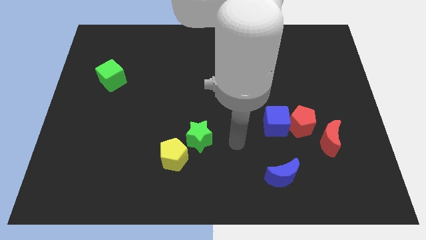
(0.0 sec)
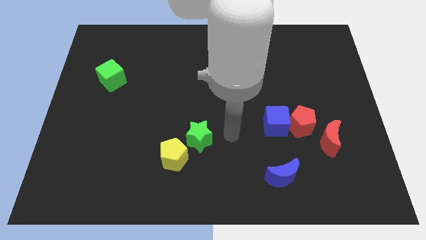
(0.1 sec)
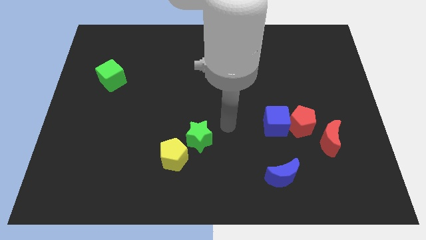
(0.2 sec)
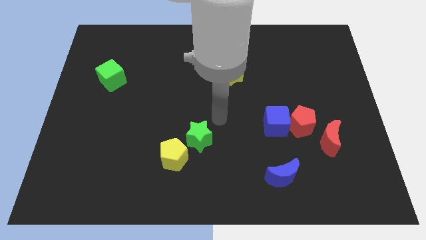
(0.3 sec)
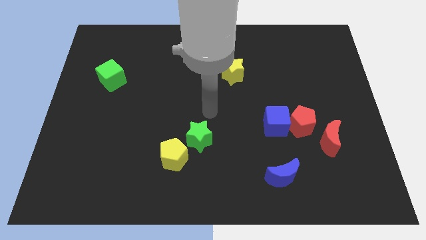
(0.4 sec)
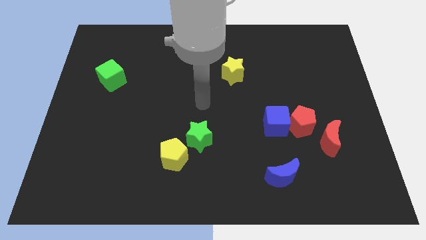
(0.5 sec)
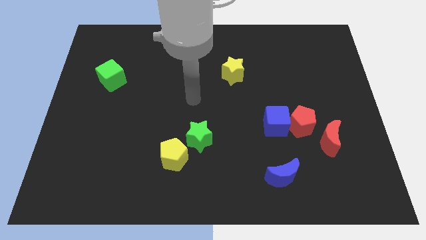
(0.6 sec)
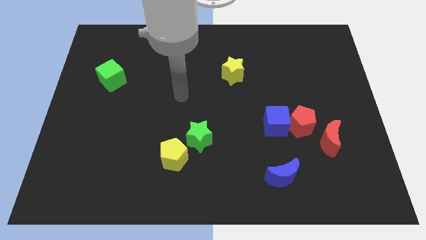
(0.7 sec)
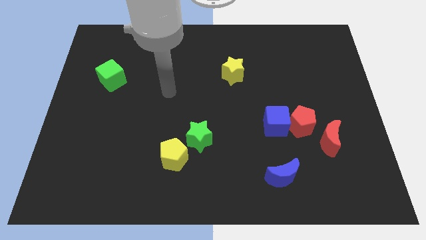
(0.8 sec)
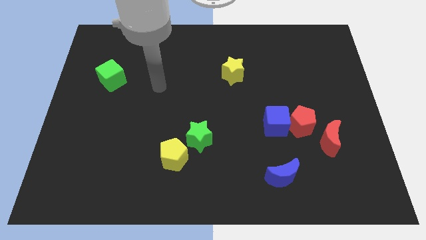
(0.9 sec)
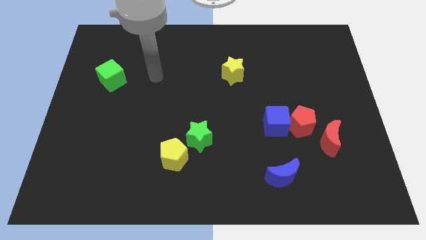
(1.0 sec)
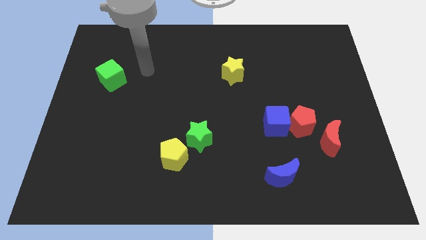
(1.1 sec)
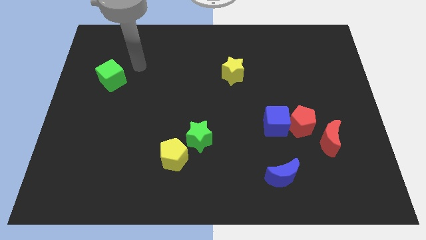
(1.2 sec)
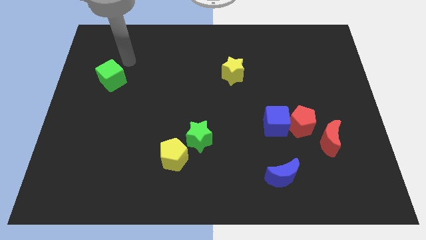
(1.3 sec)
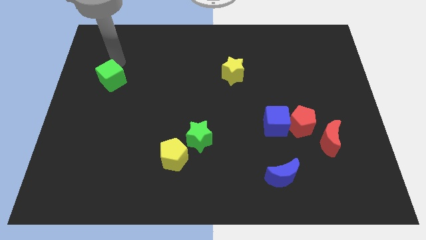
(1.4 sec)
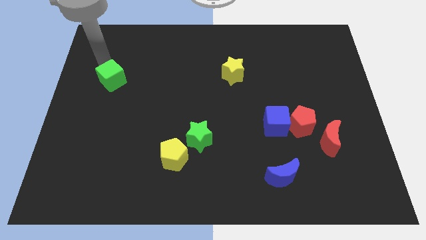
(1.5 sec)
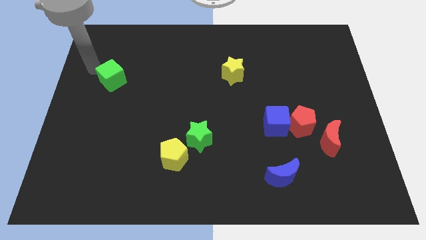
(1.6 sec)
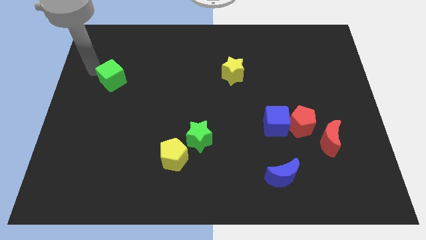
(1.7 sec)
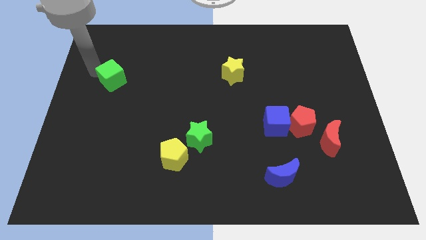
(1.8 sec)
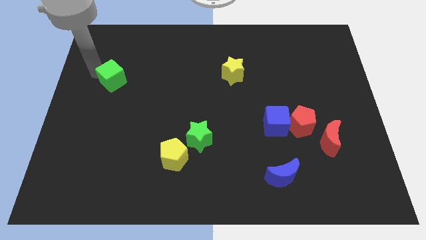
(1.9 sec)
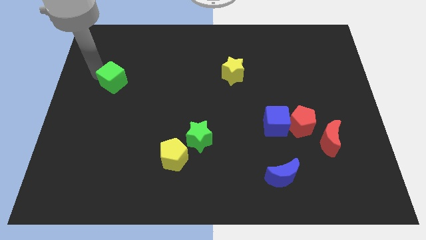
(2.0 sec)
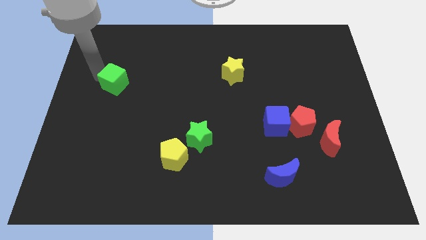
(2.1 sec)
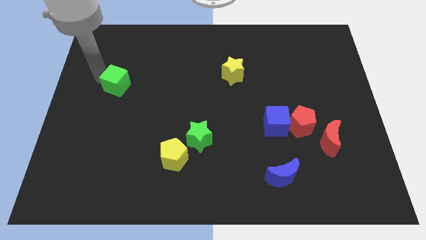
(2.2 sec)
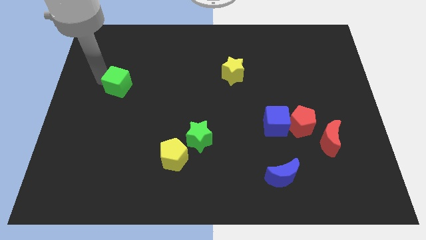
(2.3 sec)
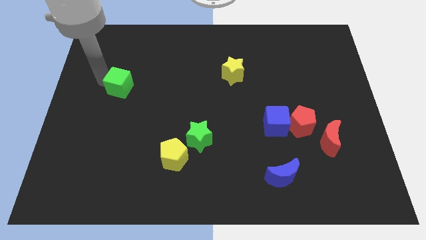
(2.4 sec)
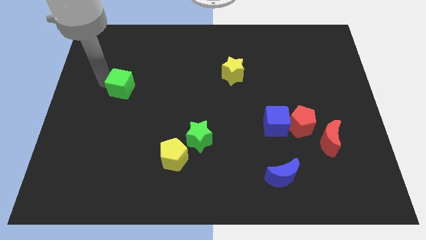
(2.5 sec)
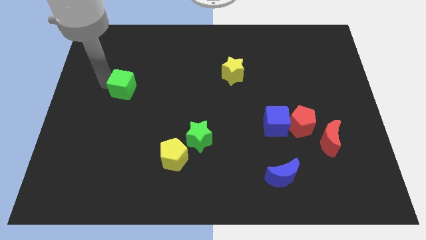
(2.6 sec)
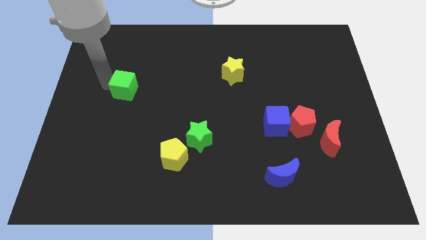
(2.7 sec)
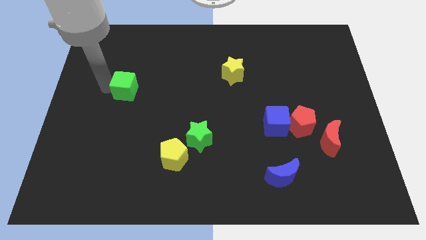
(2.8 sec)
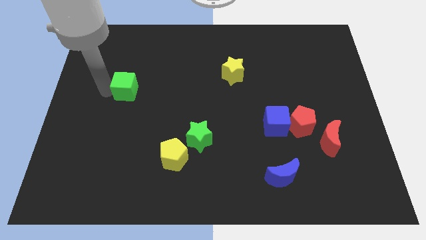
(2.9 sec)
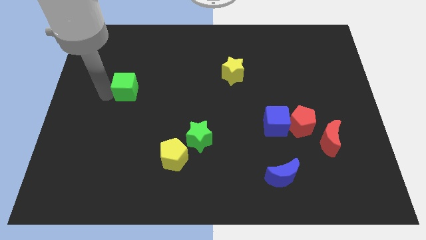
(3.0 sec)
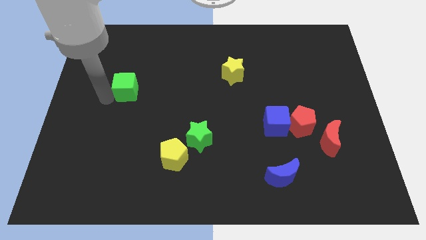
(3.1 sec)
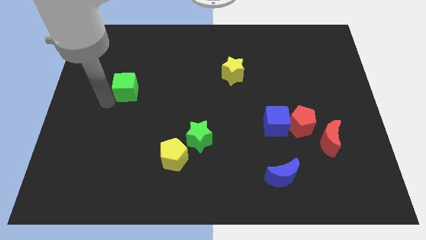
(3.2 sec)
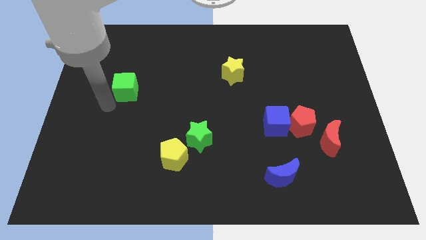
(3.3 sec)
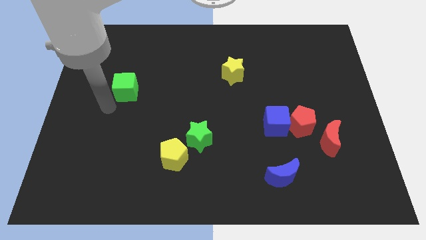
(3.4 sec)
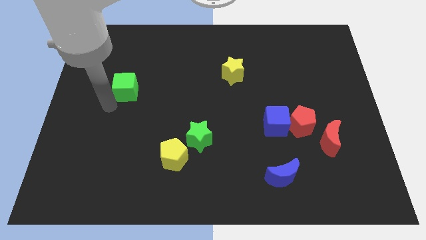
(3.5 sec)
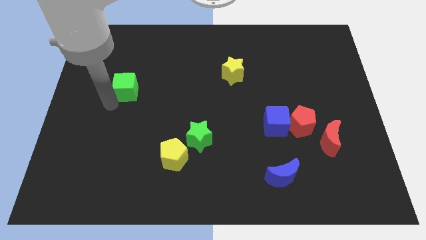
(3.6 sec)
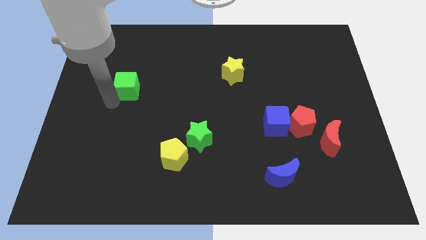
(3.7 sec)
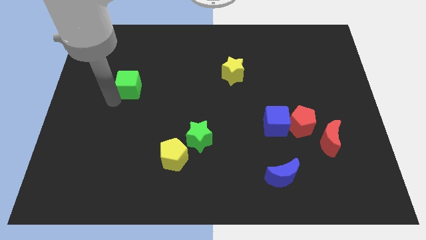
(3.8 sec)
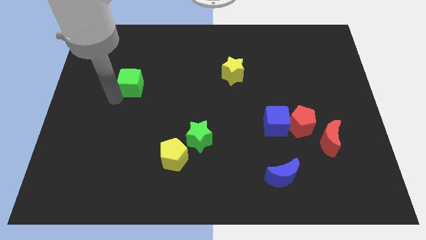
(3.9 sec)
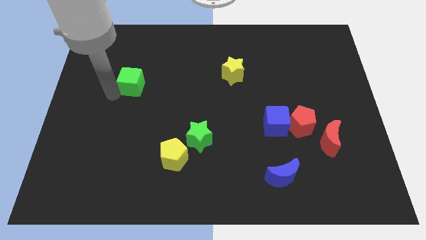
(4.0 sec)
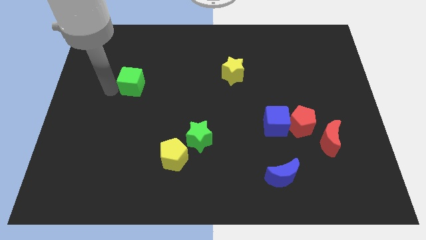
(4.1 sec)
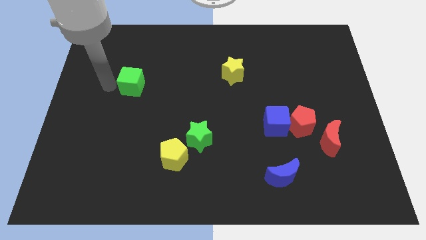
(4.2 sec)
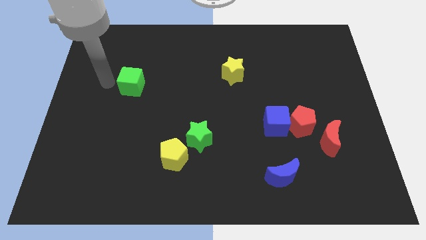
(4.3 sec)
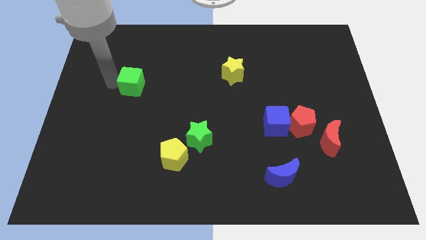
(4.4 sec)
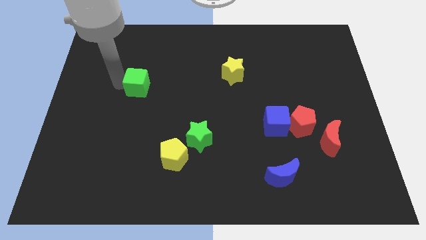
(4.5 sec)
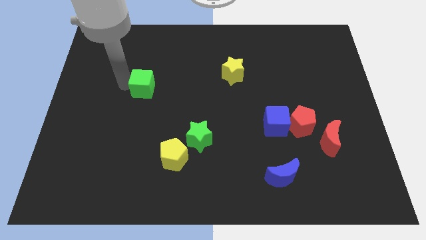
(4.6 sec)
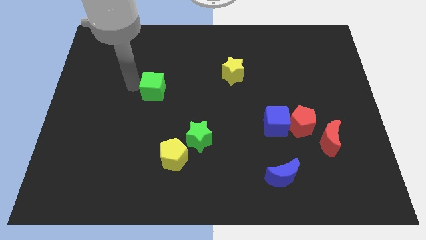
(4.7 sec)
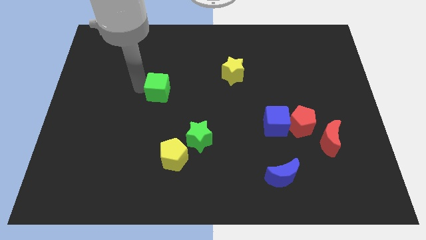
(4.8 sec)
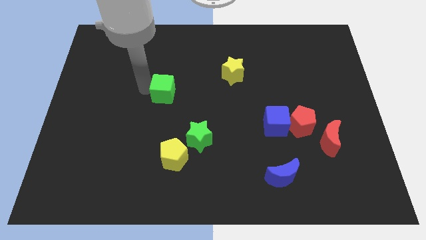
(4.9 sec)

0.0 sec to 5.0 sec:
push the green cube to the middle of the board

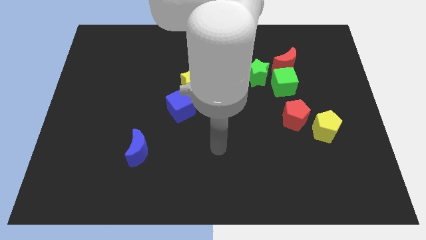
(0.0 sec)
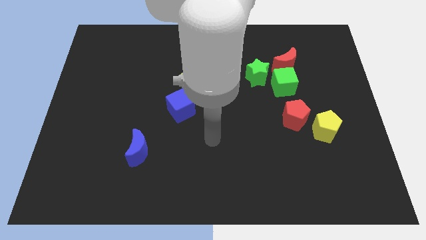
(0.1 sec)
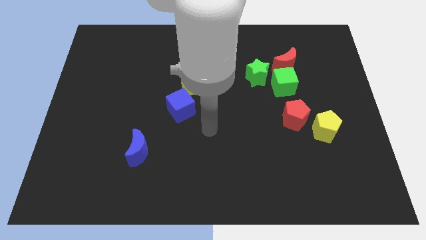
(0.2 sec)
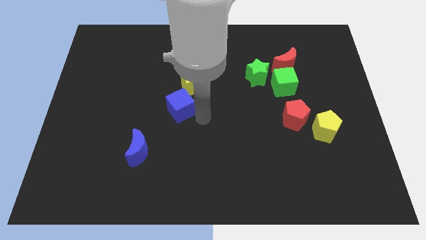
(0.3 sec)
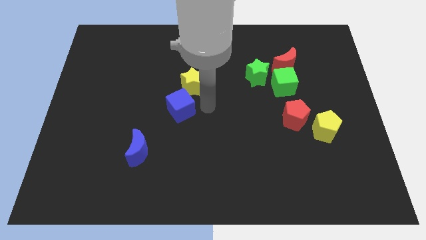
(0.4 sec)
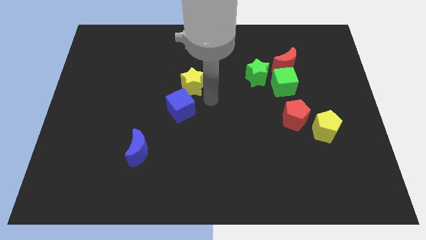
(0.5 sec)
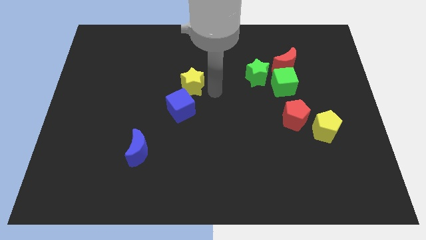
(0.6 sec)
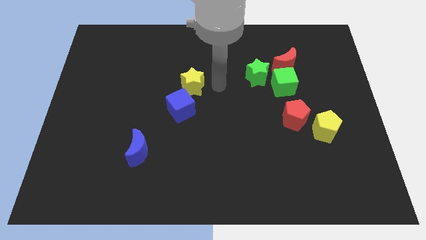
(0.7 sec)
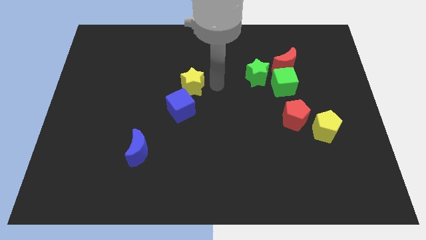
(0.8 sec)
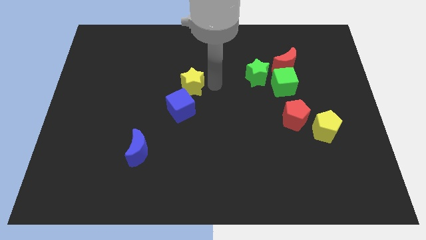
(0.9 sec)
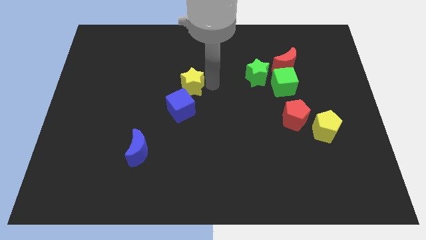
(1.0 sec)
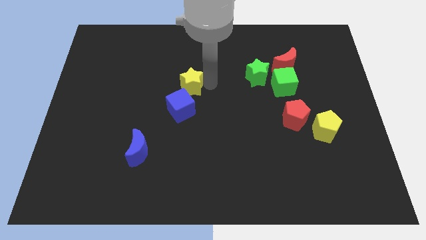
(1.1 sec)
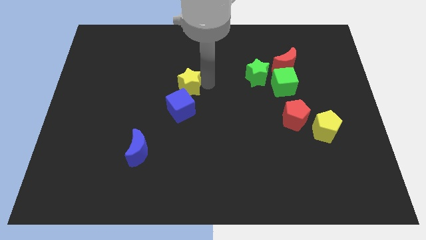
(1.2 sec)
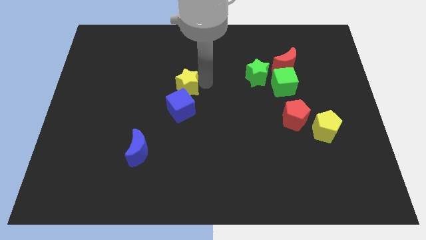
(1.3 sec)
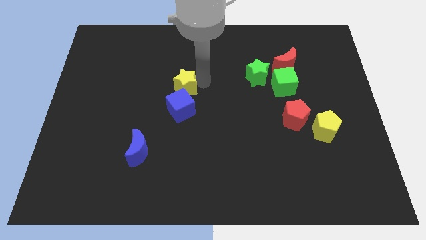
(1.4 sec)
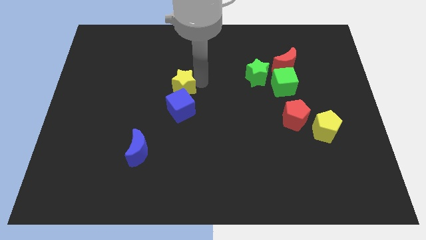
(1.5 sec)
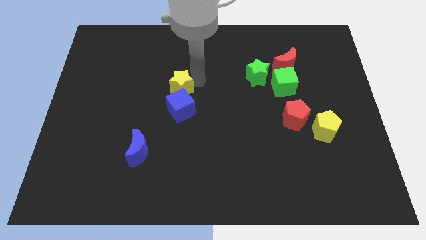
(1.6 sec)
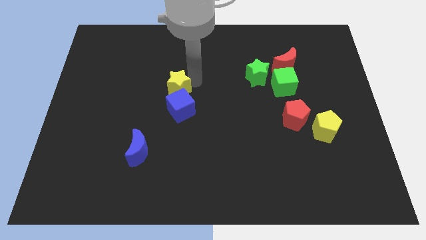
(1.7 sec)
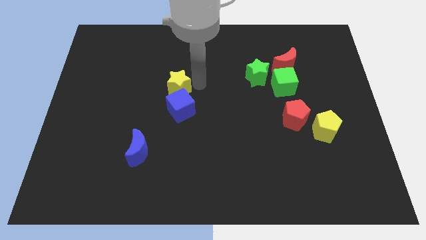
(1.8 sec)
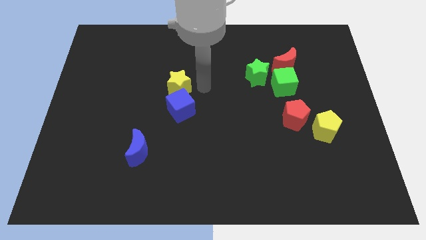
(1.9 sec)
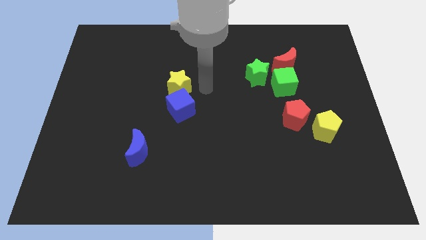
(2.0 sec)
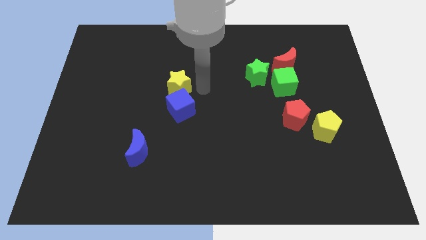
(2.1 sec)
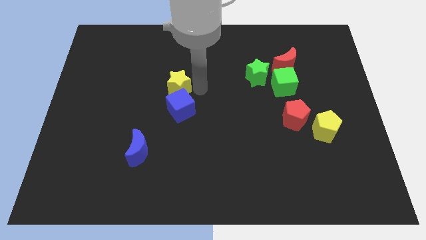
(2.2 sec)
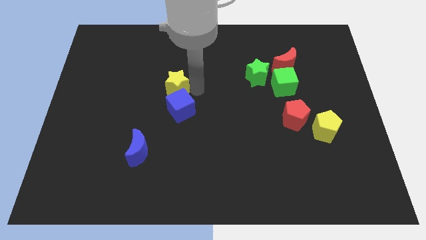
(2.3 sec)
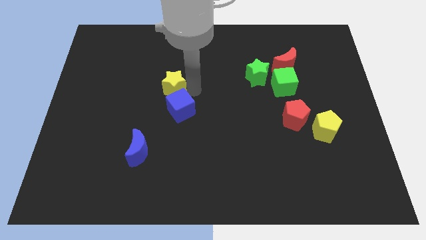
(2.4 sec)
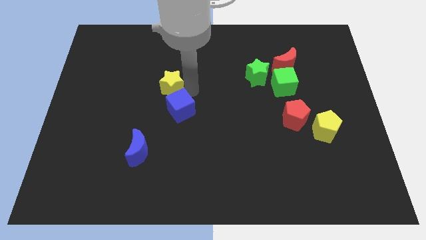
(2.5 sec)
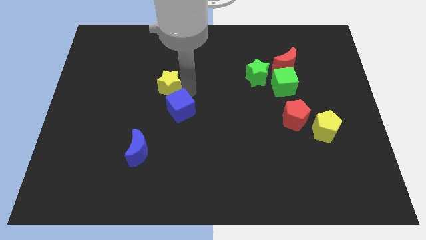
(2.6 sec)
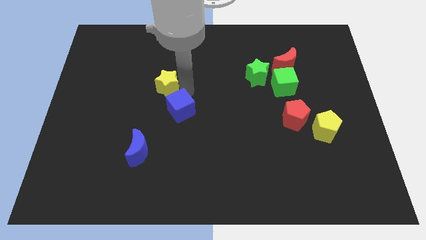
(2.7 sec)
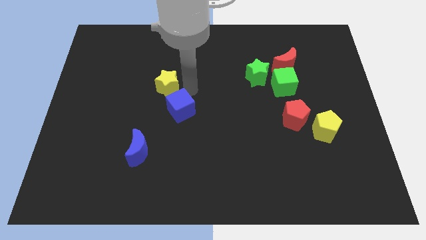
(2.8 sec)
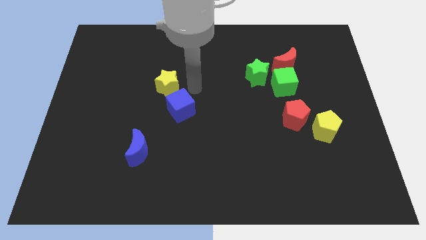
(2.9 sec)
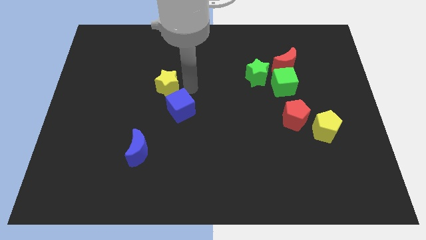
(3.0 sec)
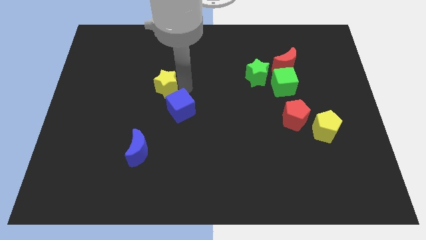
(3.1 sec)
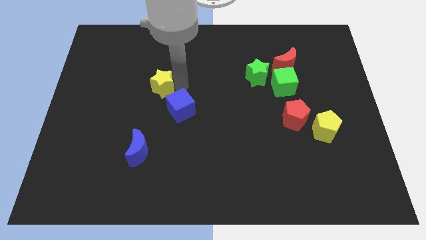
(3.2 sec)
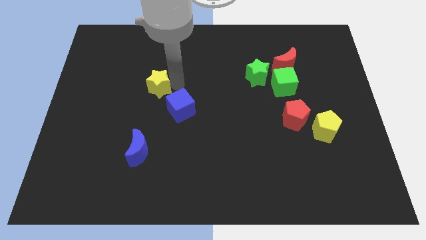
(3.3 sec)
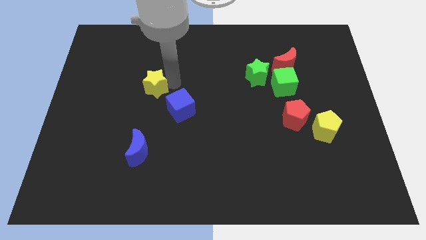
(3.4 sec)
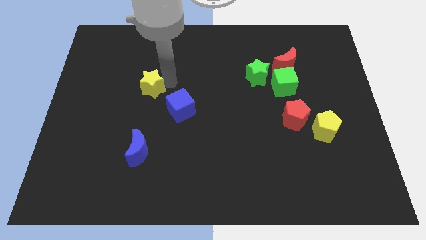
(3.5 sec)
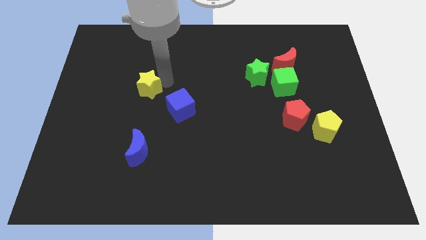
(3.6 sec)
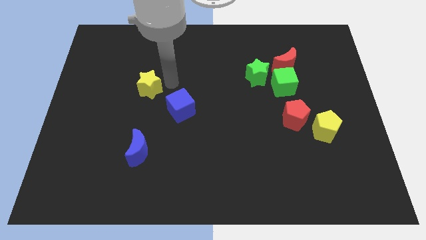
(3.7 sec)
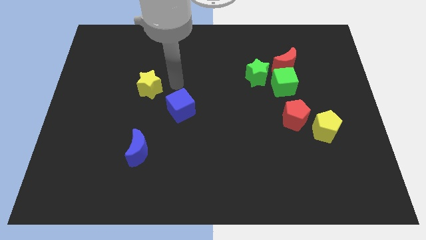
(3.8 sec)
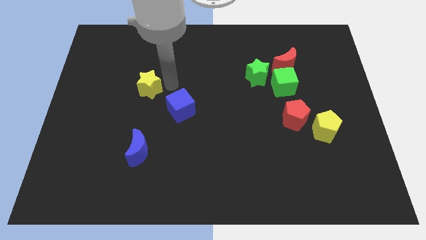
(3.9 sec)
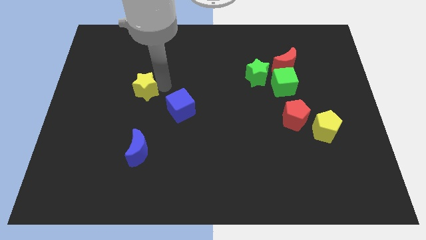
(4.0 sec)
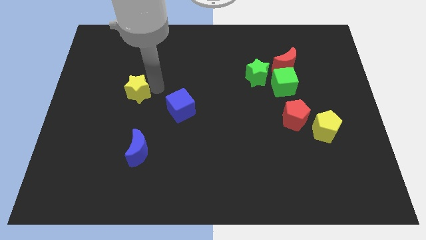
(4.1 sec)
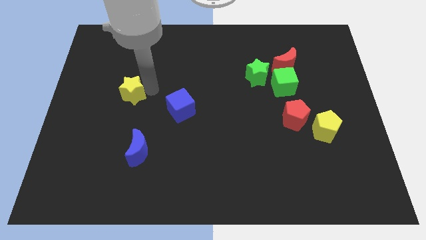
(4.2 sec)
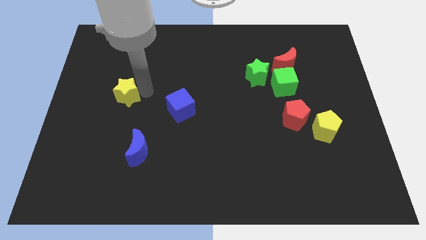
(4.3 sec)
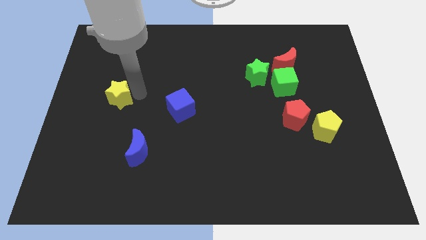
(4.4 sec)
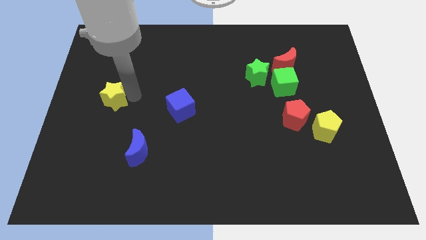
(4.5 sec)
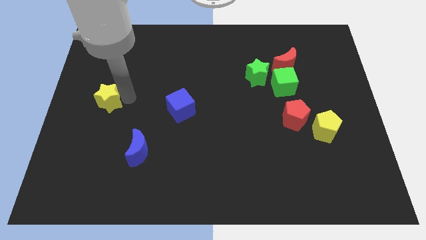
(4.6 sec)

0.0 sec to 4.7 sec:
slide the yellow star to the left side of the board
